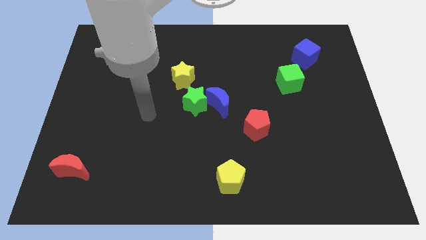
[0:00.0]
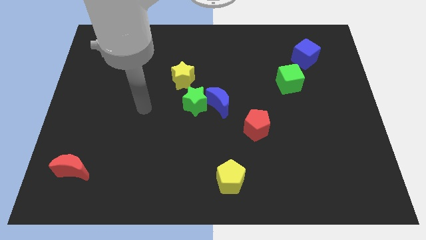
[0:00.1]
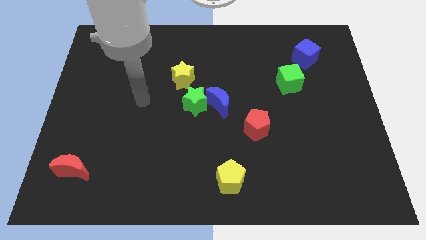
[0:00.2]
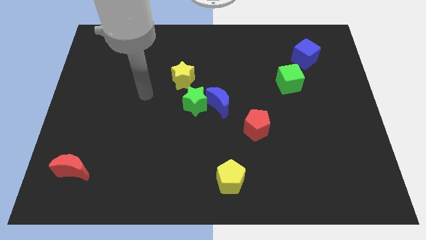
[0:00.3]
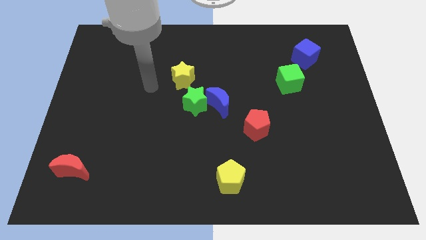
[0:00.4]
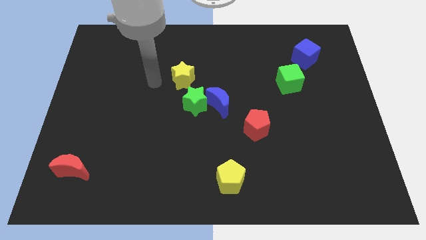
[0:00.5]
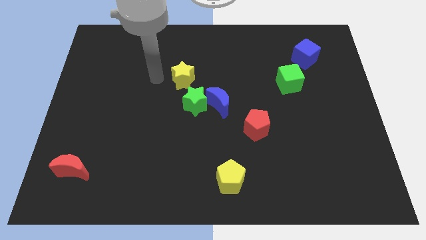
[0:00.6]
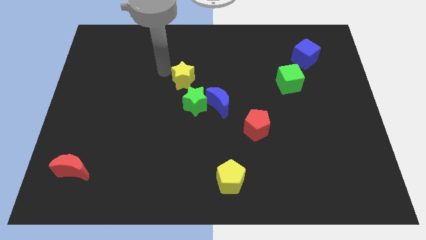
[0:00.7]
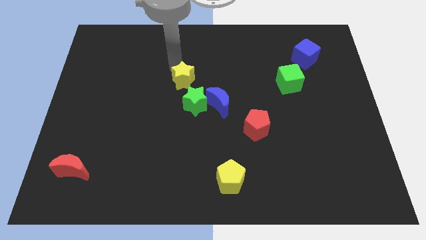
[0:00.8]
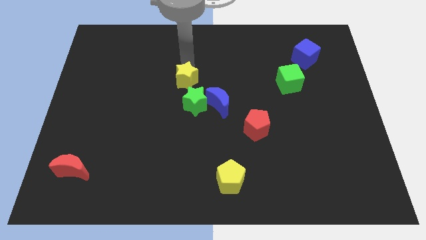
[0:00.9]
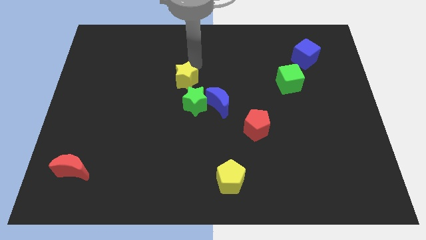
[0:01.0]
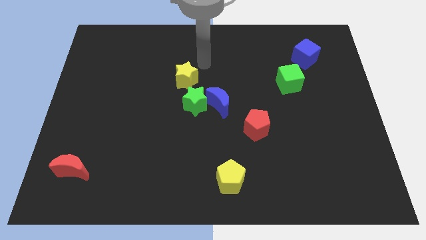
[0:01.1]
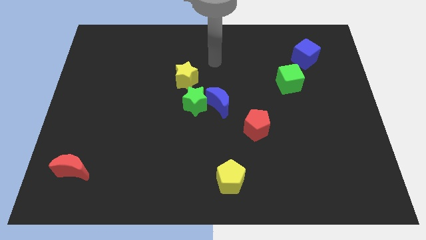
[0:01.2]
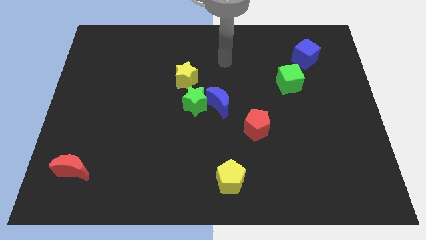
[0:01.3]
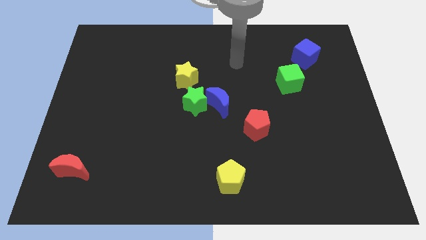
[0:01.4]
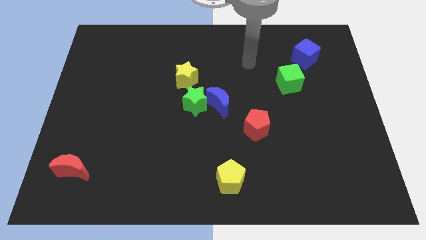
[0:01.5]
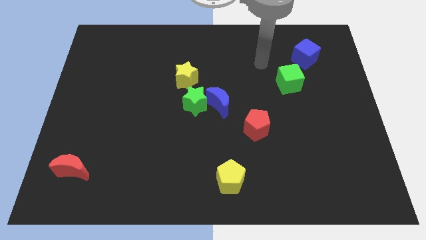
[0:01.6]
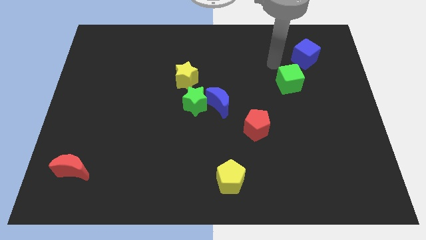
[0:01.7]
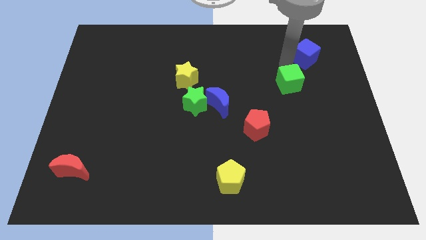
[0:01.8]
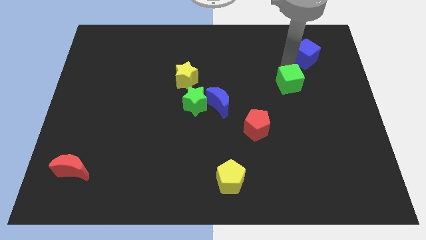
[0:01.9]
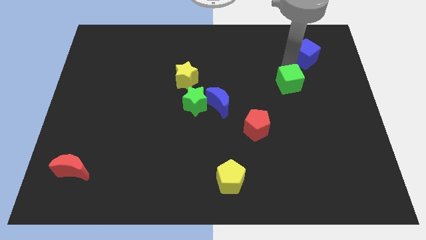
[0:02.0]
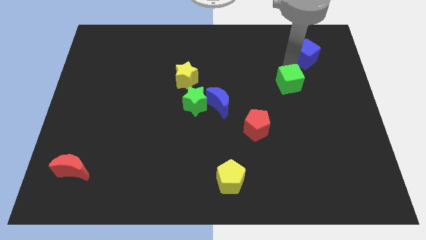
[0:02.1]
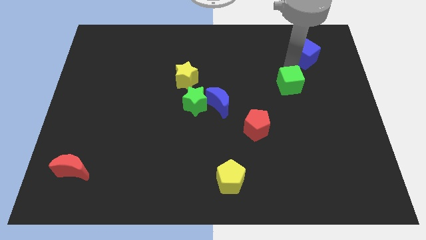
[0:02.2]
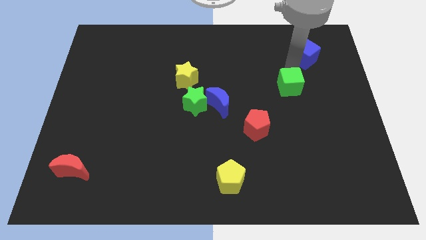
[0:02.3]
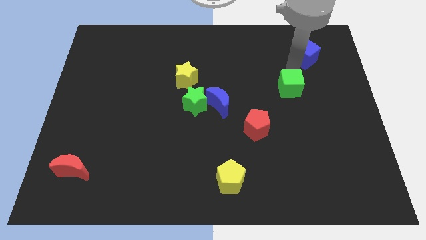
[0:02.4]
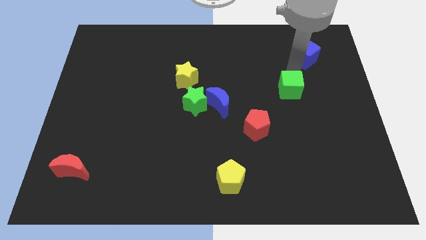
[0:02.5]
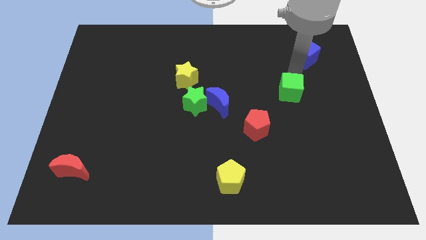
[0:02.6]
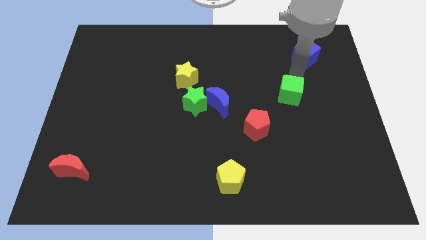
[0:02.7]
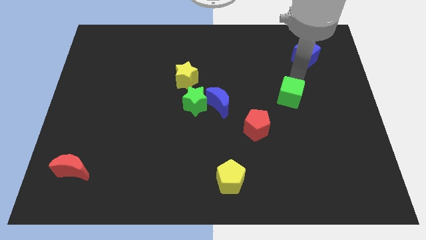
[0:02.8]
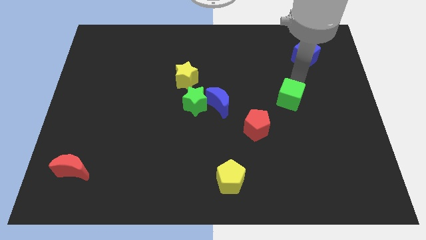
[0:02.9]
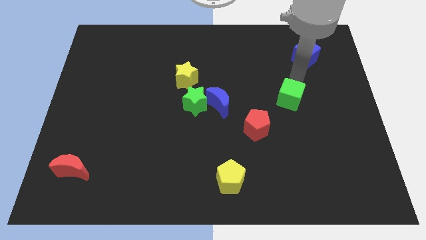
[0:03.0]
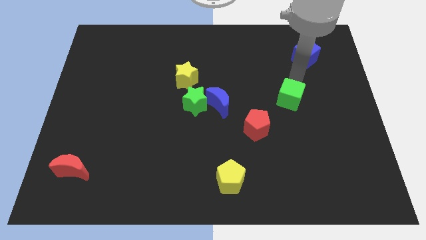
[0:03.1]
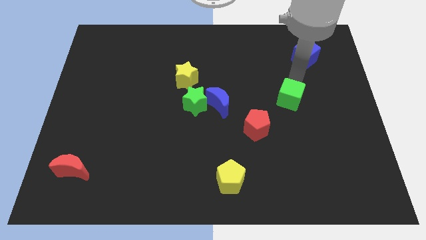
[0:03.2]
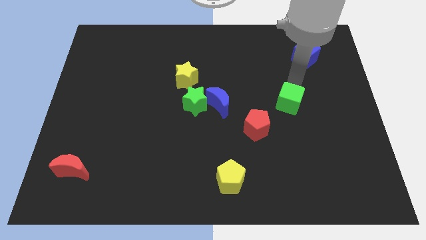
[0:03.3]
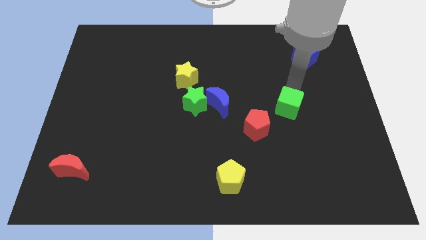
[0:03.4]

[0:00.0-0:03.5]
move the green cube slightly downwards

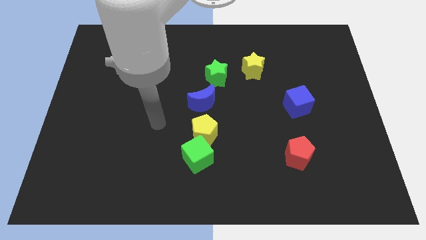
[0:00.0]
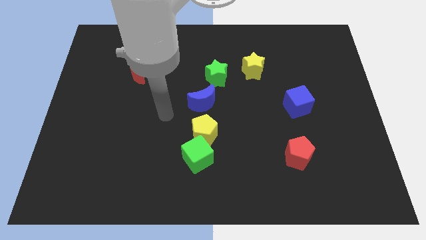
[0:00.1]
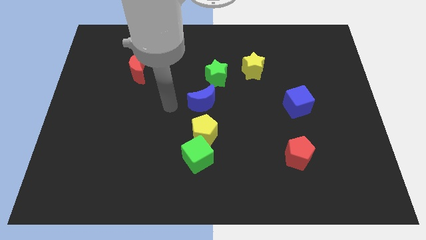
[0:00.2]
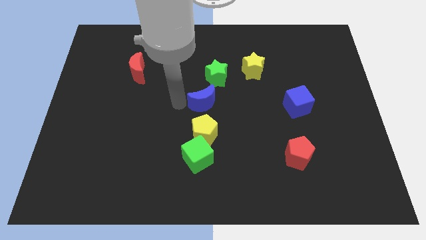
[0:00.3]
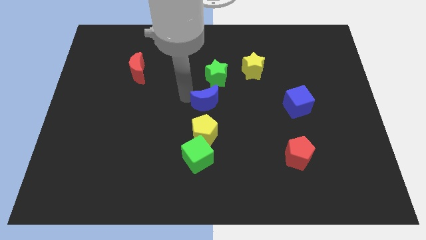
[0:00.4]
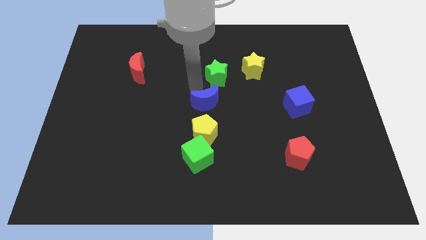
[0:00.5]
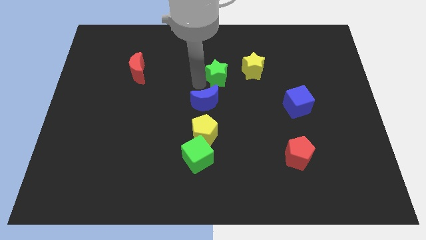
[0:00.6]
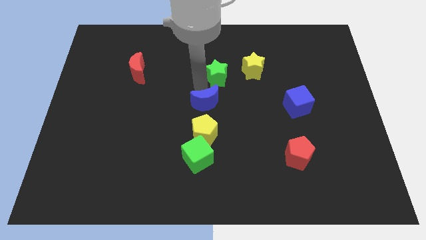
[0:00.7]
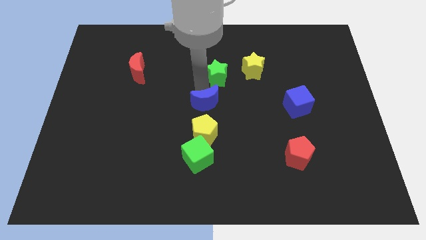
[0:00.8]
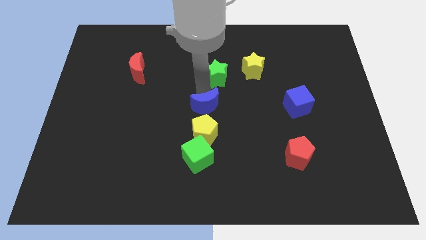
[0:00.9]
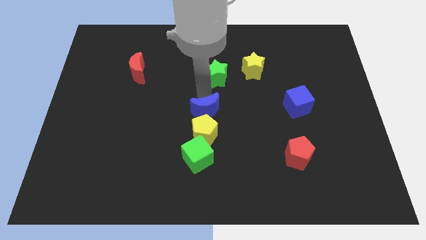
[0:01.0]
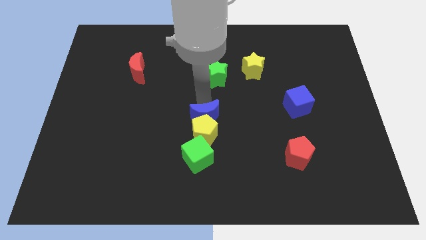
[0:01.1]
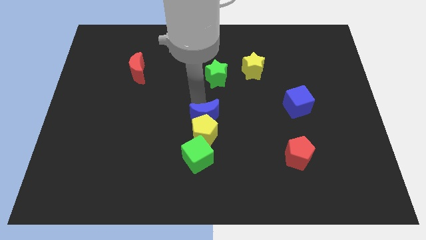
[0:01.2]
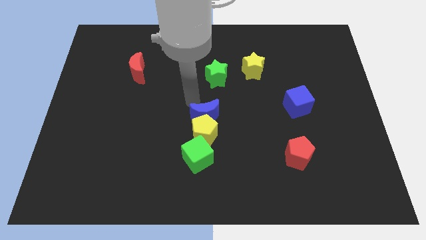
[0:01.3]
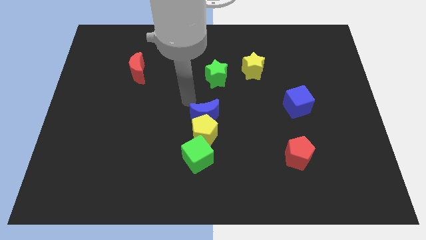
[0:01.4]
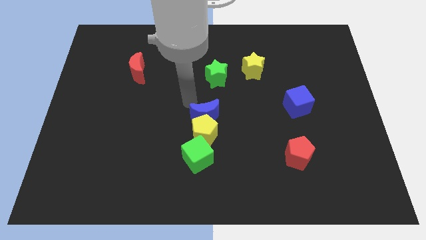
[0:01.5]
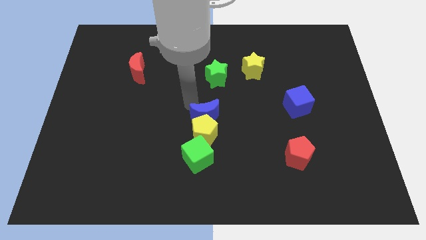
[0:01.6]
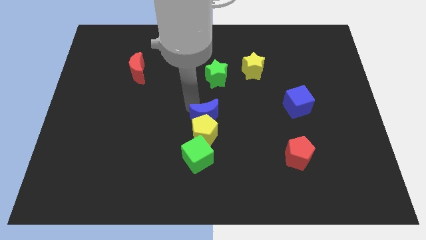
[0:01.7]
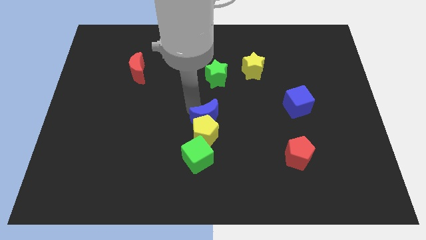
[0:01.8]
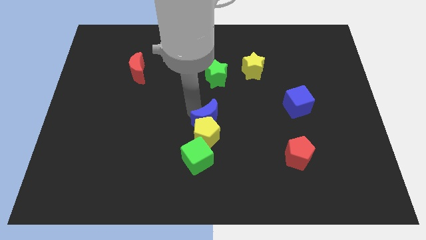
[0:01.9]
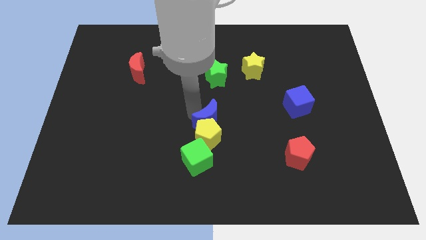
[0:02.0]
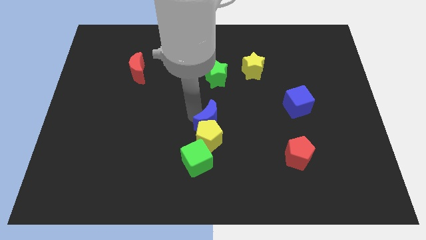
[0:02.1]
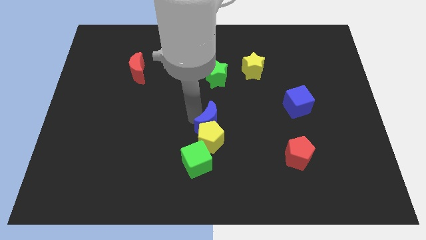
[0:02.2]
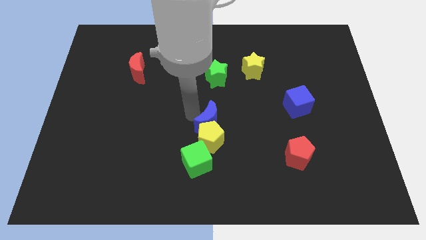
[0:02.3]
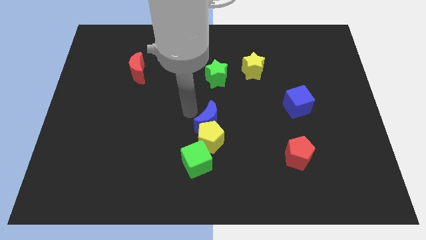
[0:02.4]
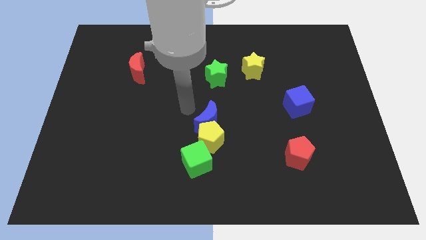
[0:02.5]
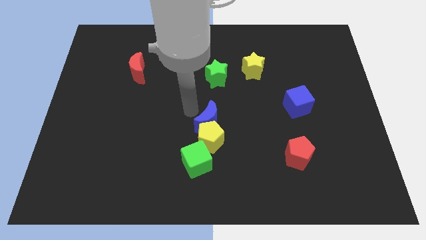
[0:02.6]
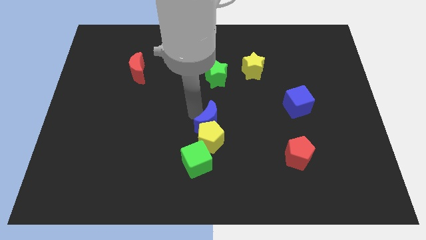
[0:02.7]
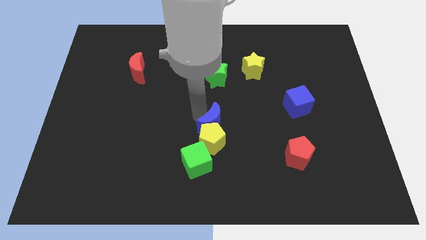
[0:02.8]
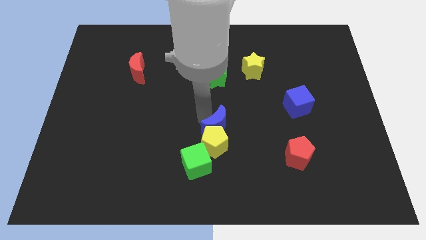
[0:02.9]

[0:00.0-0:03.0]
move the blue moon a little diagonally down and to the right

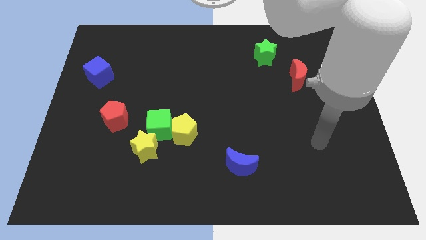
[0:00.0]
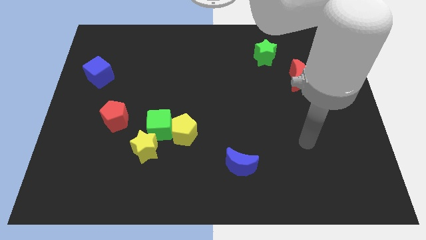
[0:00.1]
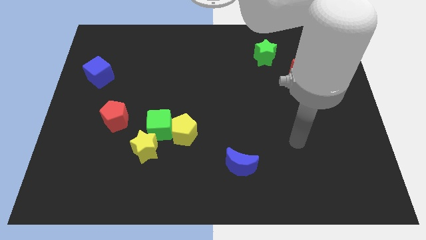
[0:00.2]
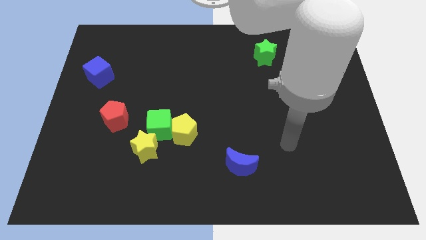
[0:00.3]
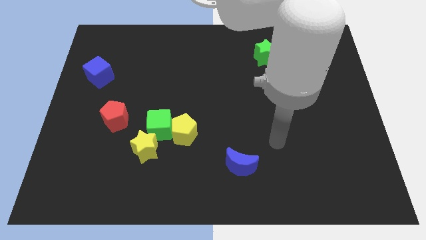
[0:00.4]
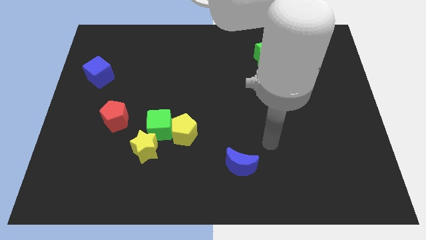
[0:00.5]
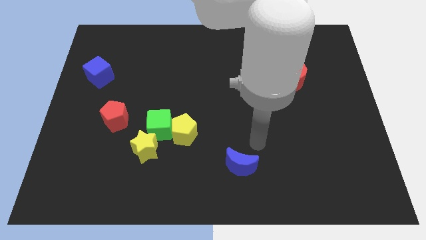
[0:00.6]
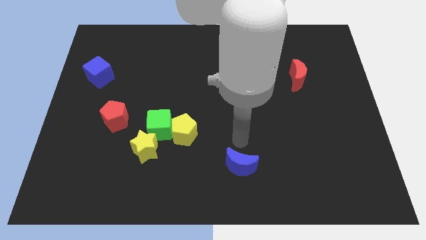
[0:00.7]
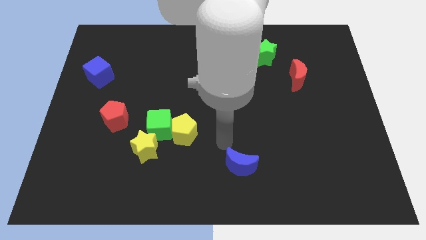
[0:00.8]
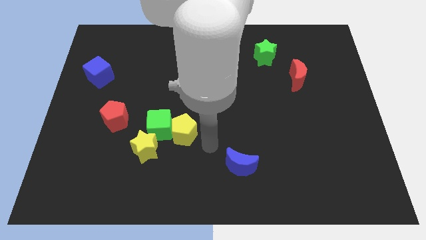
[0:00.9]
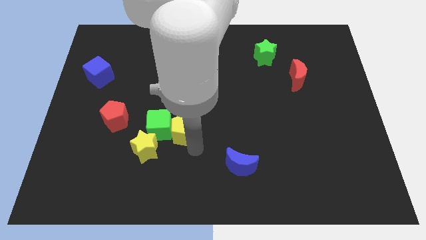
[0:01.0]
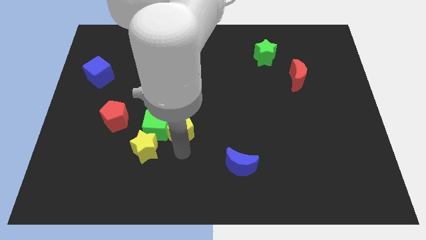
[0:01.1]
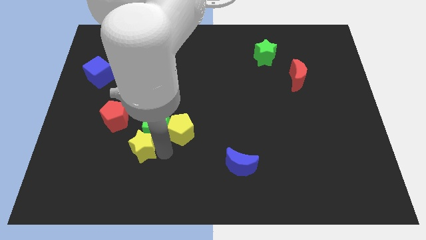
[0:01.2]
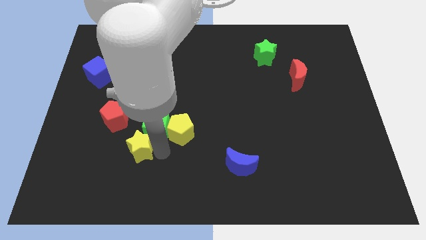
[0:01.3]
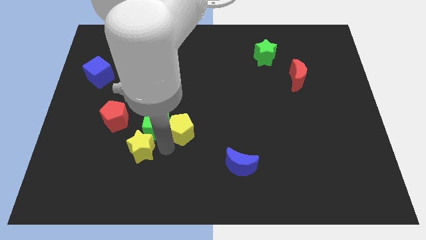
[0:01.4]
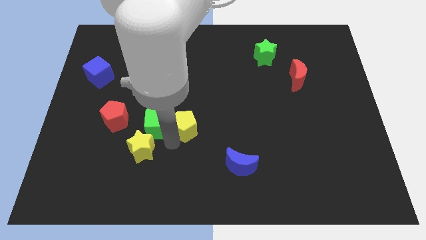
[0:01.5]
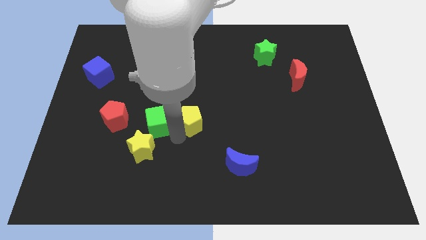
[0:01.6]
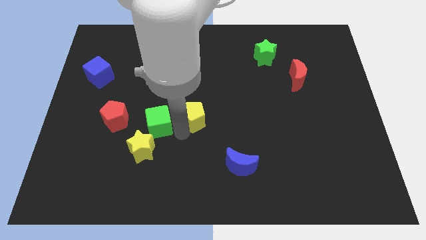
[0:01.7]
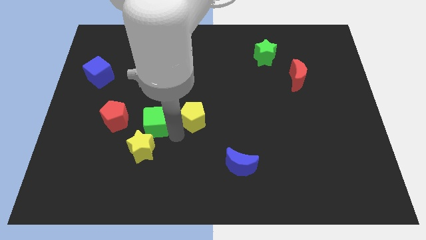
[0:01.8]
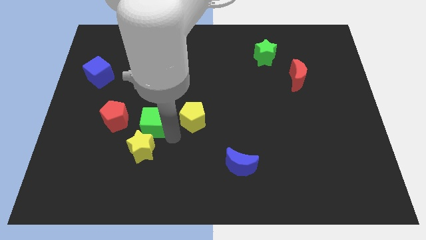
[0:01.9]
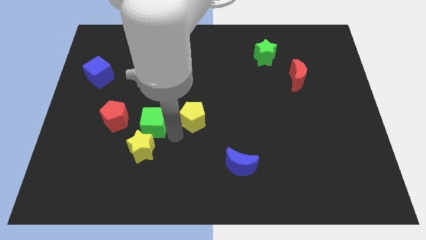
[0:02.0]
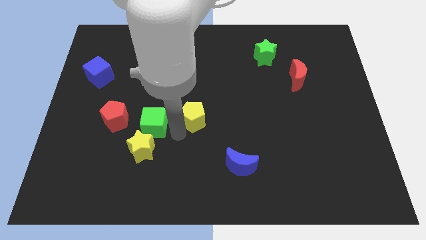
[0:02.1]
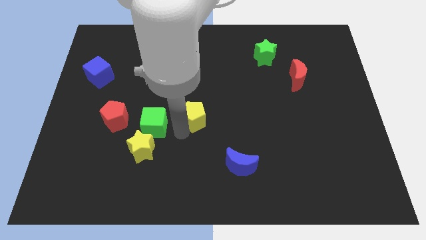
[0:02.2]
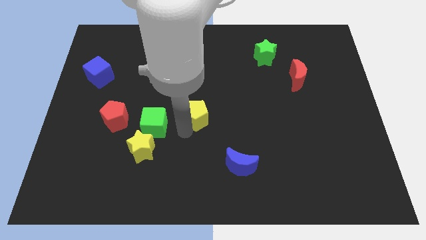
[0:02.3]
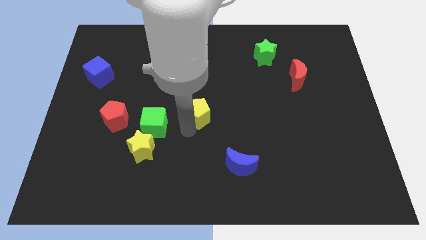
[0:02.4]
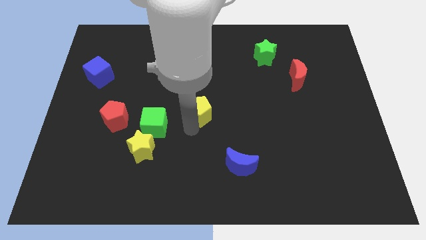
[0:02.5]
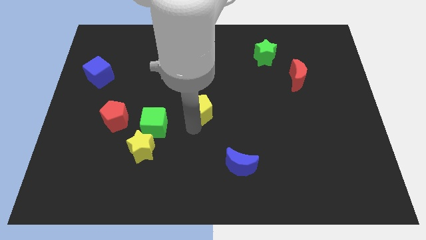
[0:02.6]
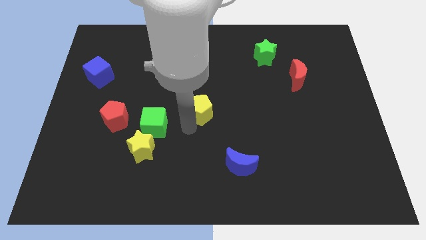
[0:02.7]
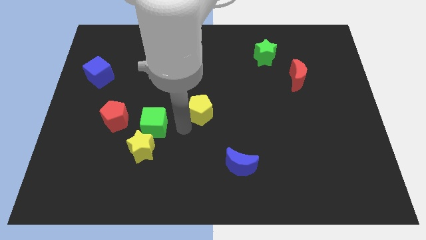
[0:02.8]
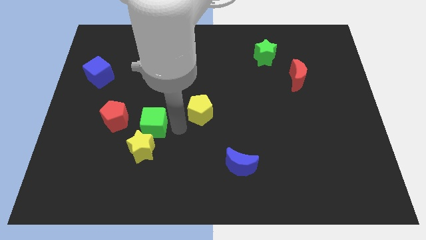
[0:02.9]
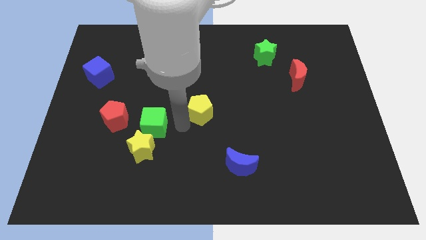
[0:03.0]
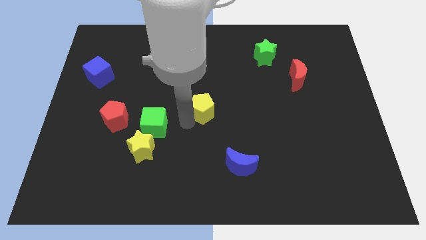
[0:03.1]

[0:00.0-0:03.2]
slightly move the yellow pentagon upwards and right diagonally
